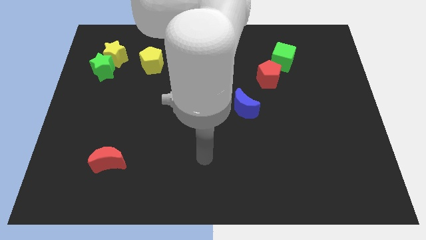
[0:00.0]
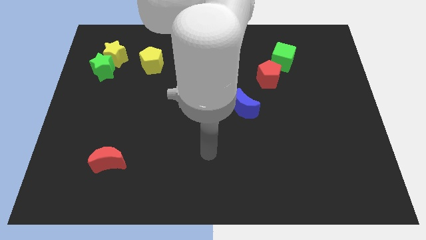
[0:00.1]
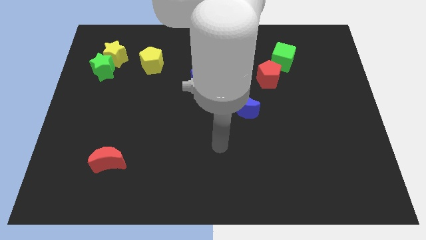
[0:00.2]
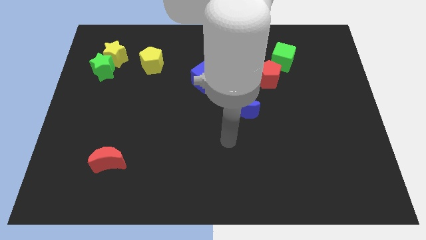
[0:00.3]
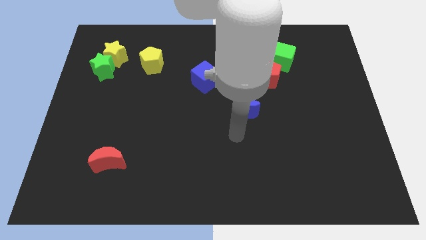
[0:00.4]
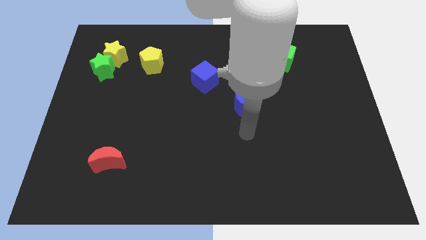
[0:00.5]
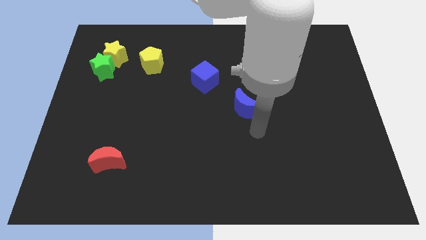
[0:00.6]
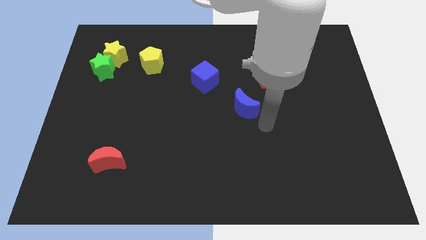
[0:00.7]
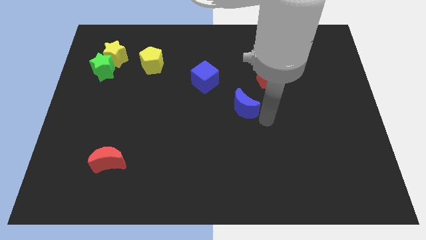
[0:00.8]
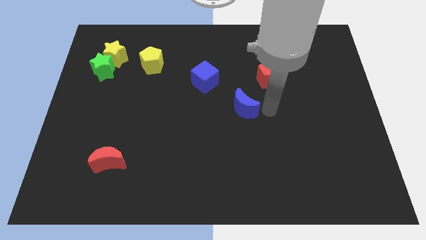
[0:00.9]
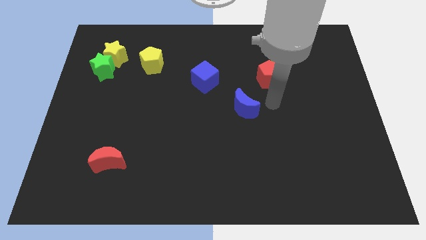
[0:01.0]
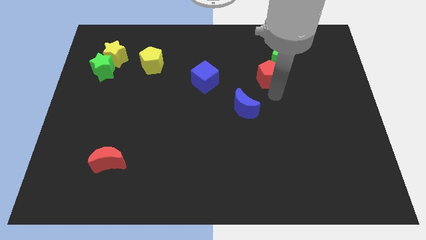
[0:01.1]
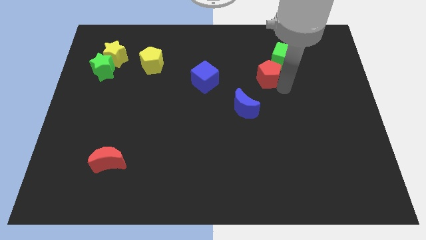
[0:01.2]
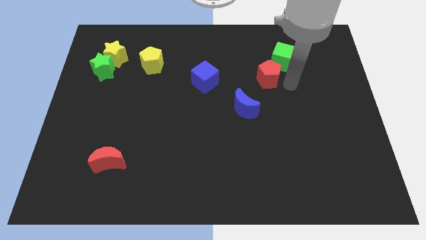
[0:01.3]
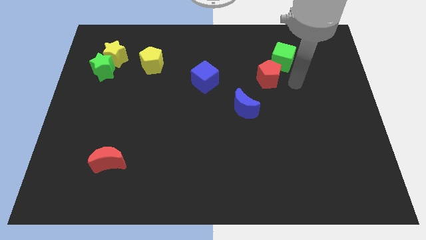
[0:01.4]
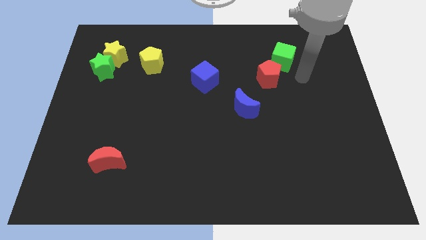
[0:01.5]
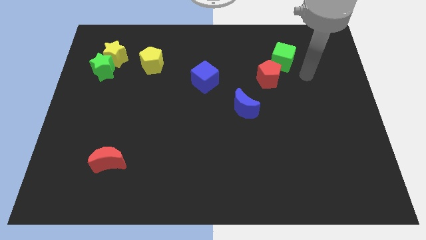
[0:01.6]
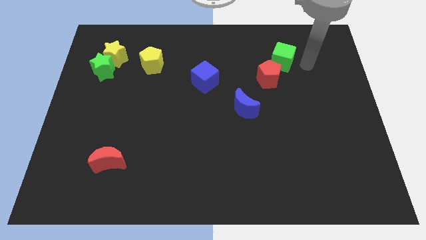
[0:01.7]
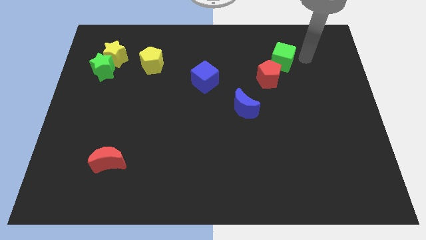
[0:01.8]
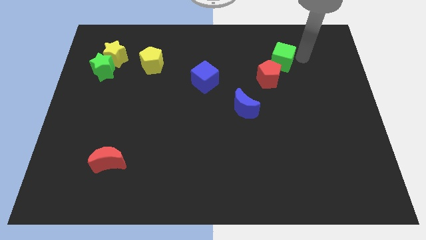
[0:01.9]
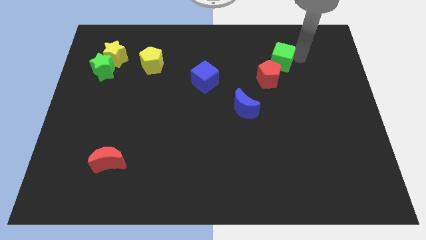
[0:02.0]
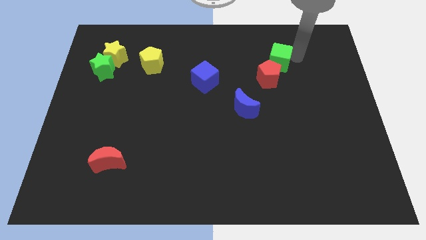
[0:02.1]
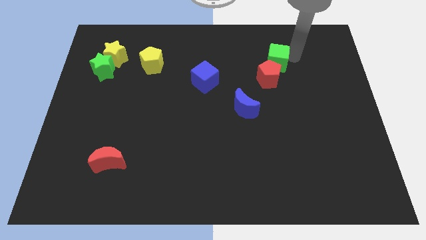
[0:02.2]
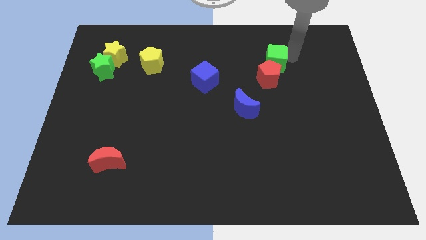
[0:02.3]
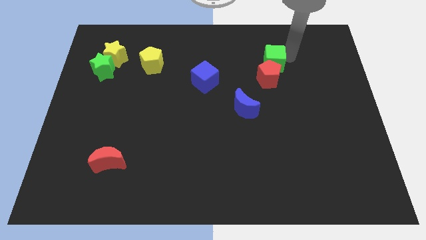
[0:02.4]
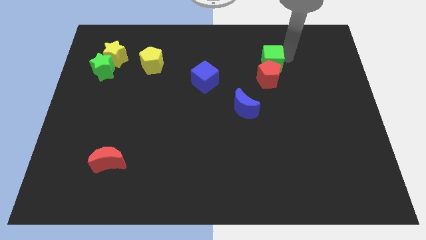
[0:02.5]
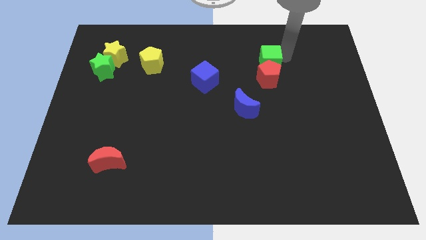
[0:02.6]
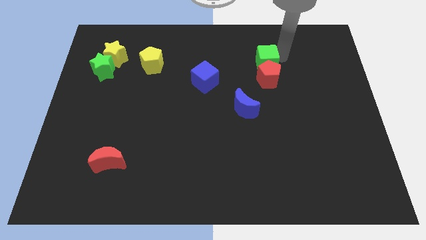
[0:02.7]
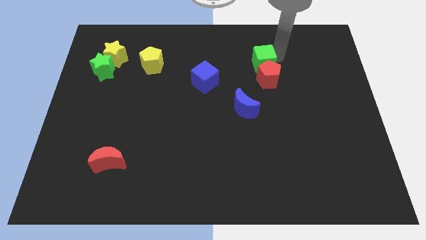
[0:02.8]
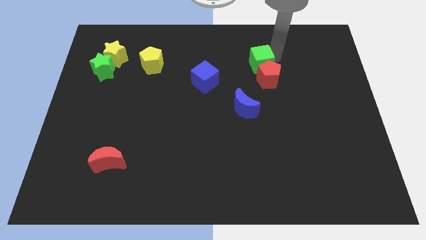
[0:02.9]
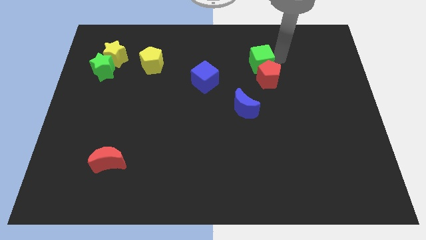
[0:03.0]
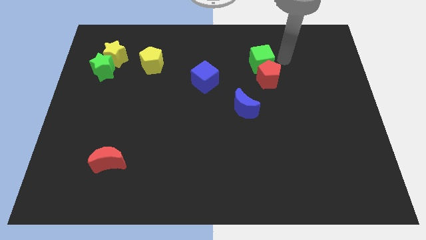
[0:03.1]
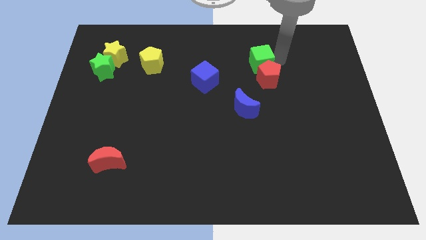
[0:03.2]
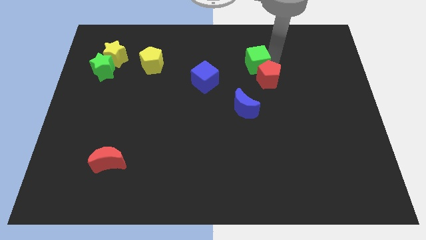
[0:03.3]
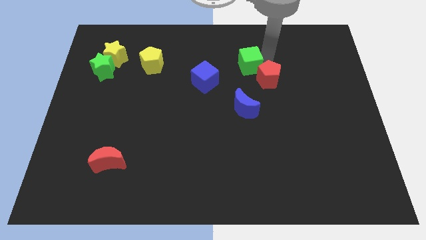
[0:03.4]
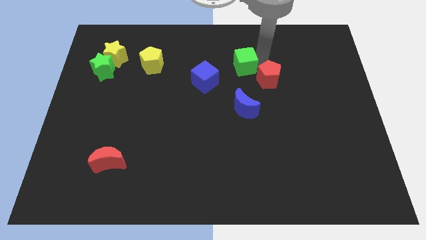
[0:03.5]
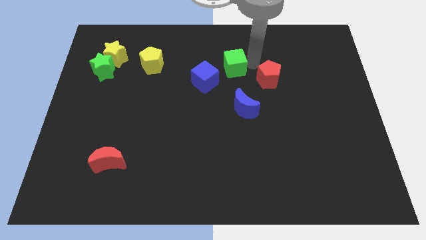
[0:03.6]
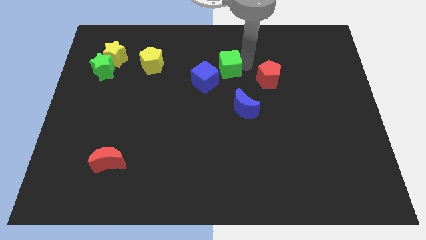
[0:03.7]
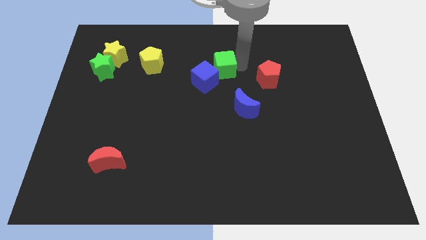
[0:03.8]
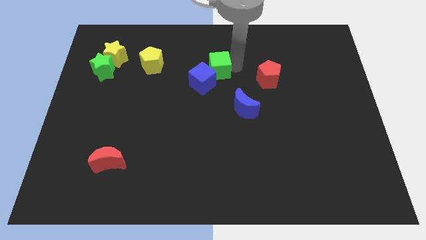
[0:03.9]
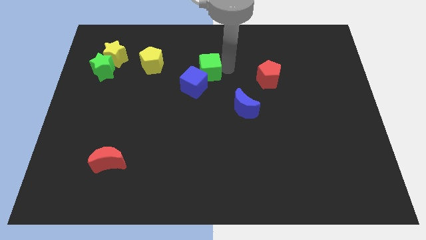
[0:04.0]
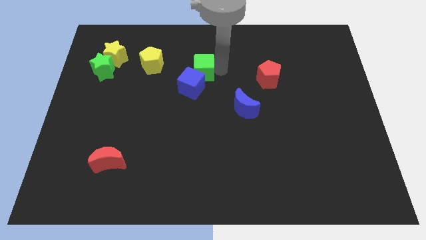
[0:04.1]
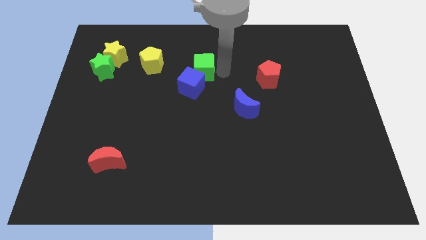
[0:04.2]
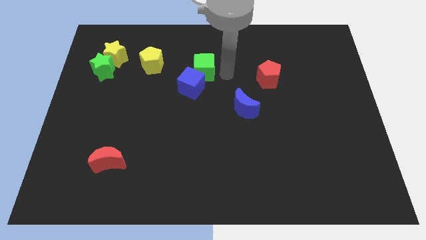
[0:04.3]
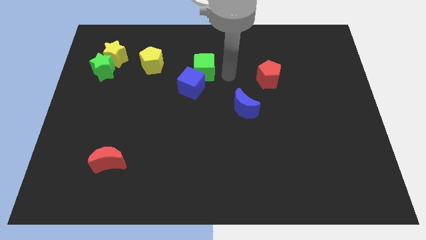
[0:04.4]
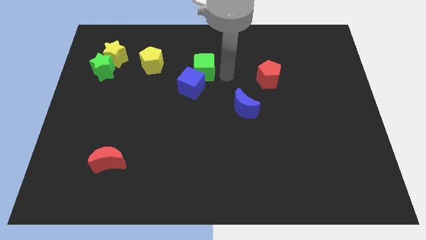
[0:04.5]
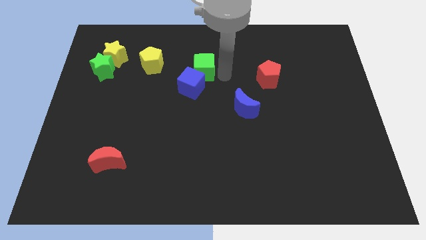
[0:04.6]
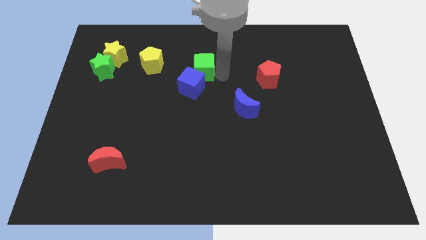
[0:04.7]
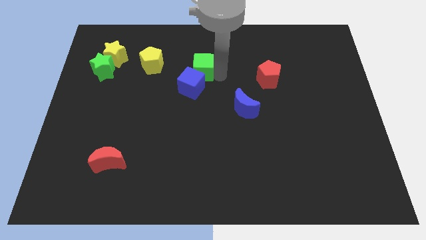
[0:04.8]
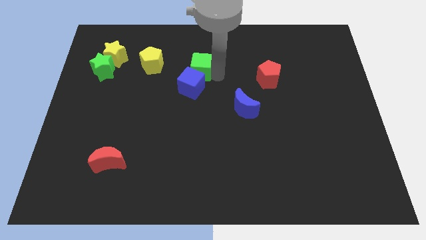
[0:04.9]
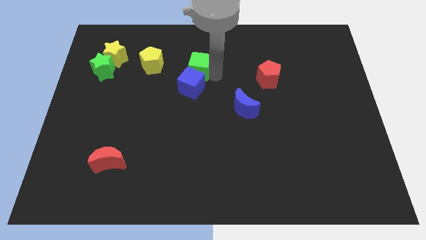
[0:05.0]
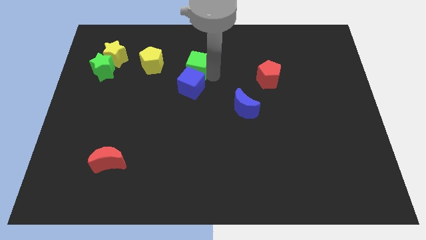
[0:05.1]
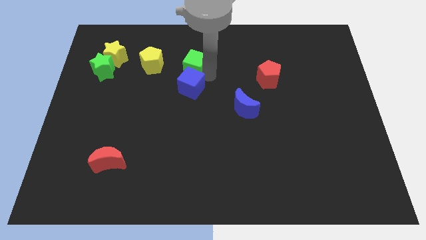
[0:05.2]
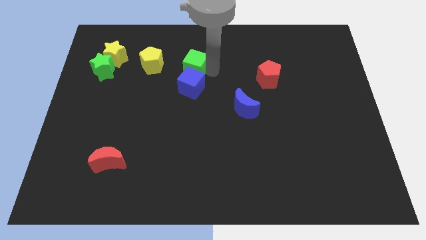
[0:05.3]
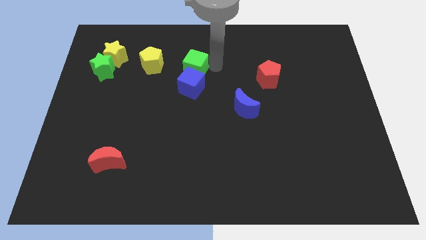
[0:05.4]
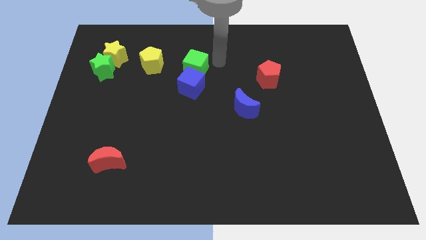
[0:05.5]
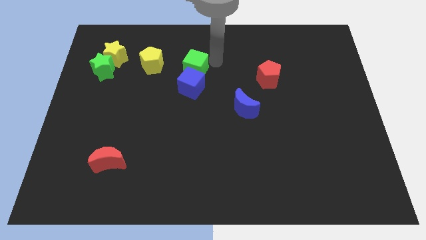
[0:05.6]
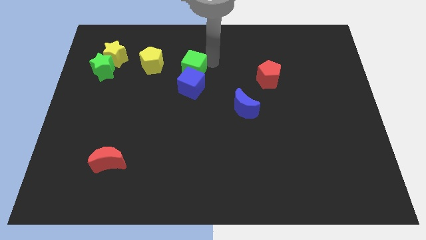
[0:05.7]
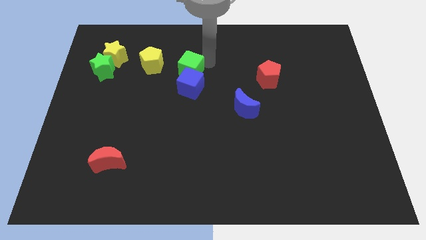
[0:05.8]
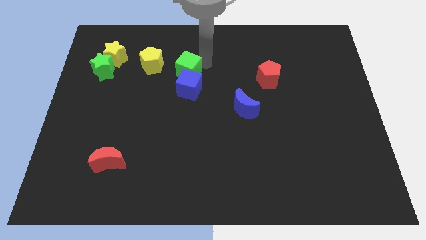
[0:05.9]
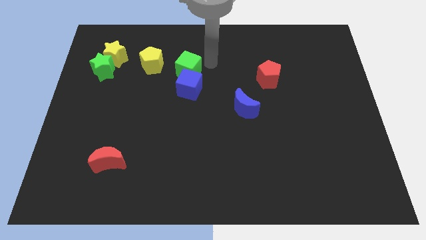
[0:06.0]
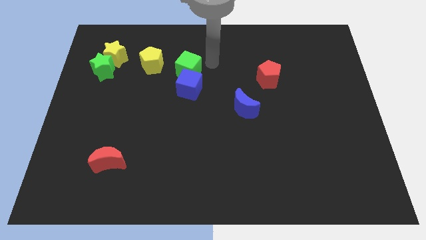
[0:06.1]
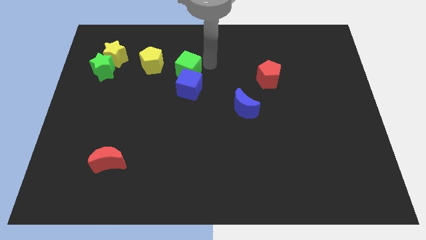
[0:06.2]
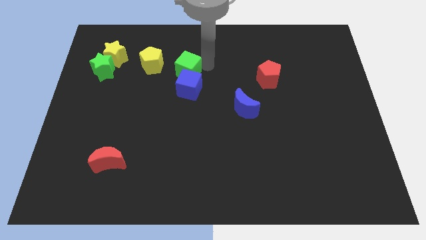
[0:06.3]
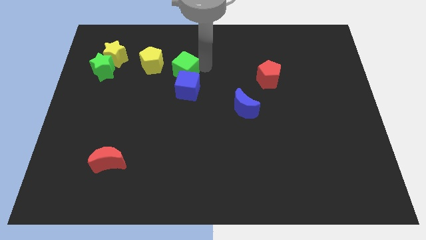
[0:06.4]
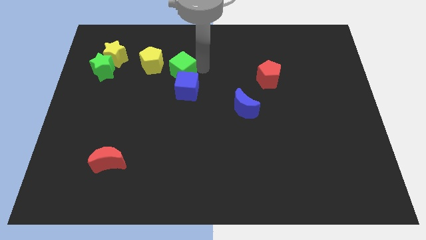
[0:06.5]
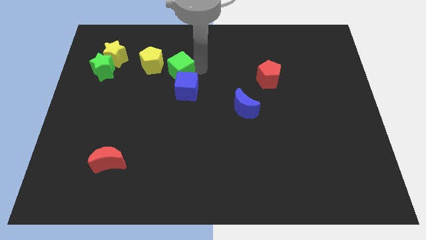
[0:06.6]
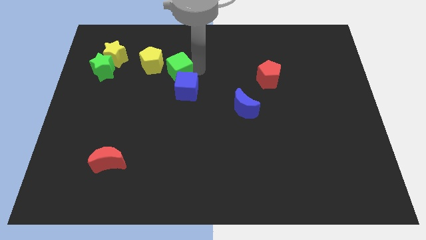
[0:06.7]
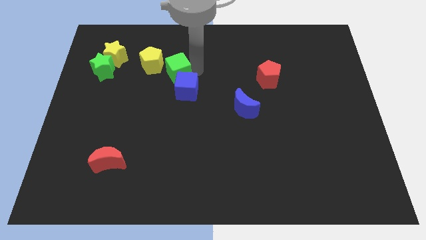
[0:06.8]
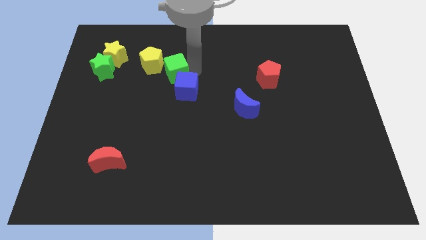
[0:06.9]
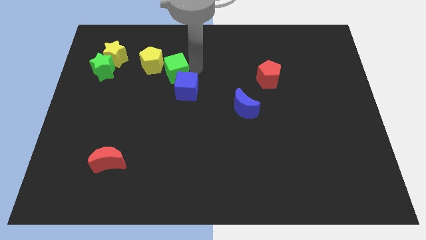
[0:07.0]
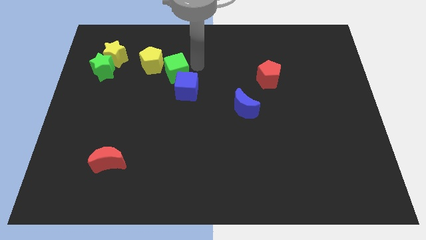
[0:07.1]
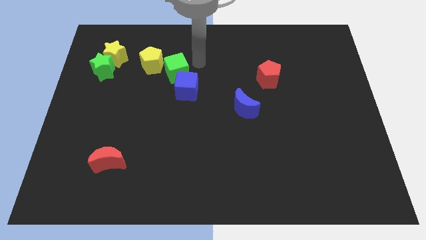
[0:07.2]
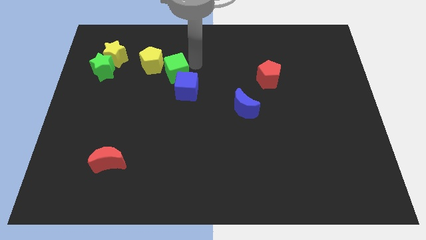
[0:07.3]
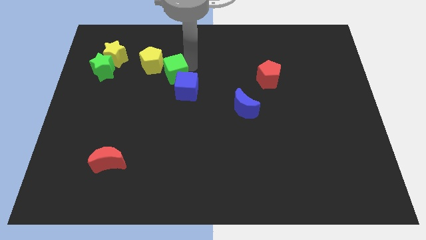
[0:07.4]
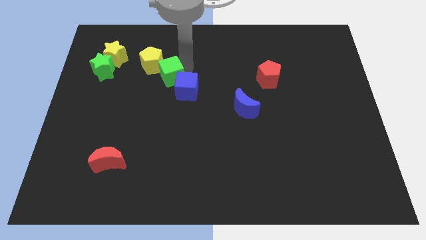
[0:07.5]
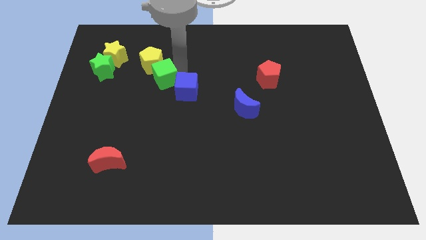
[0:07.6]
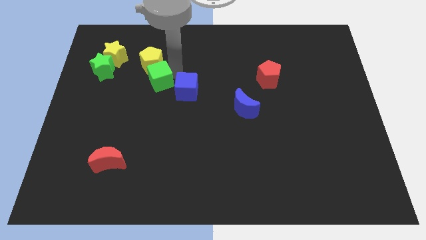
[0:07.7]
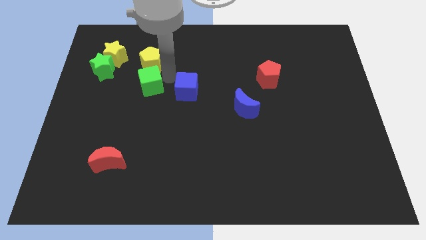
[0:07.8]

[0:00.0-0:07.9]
push the green cube to the bottom left of the yellow pentagon
